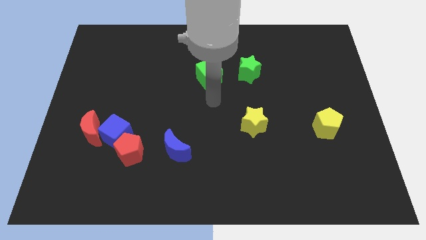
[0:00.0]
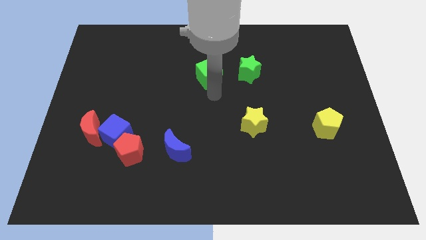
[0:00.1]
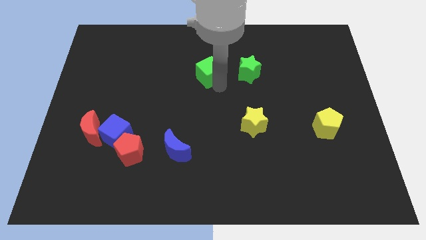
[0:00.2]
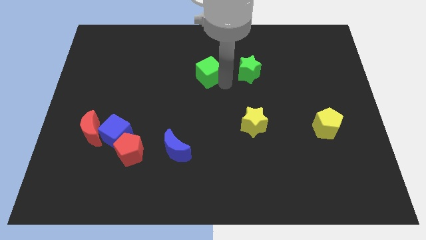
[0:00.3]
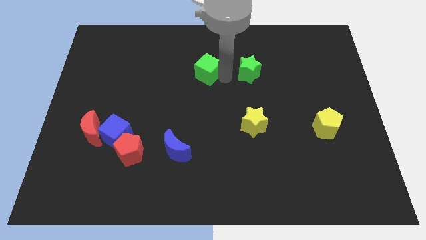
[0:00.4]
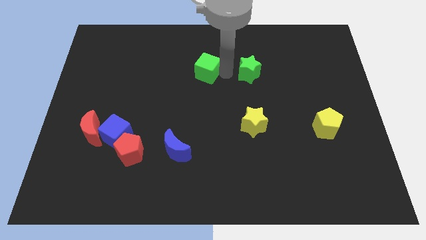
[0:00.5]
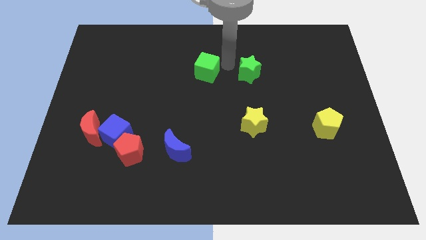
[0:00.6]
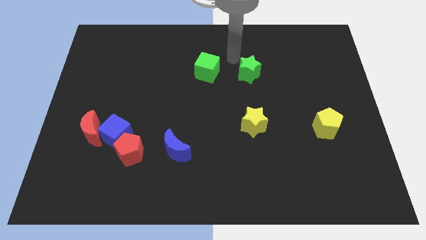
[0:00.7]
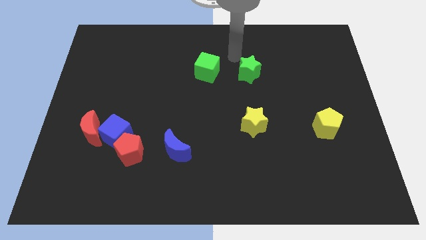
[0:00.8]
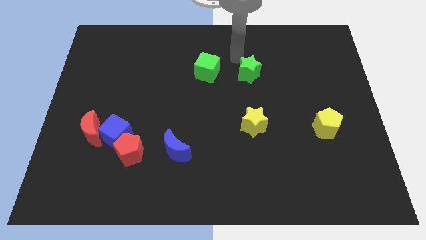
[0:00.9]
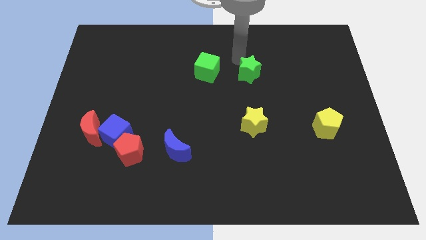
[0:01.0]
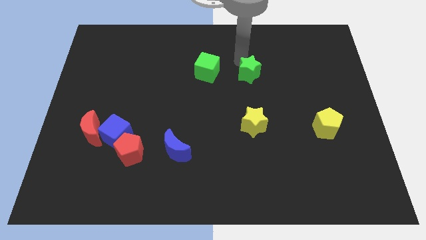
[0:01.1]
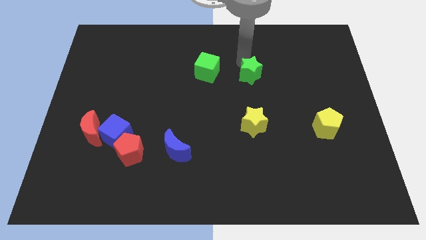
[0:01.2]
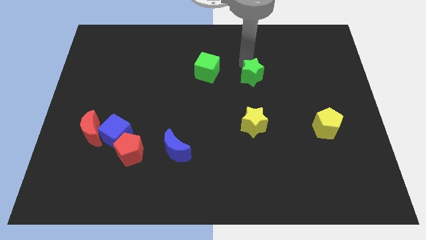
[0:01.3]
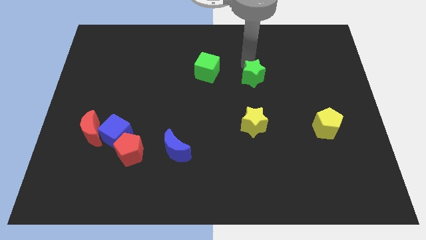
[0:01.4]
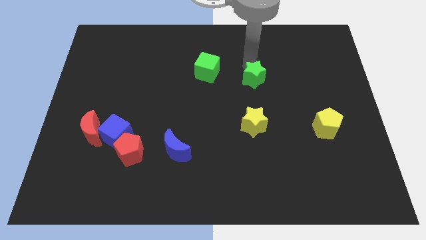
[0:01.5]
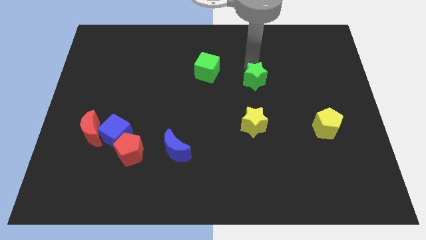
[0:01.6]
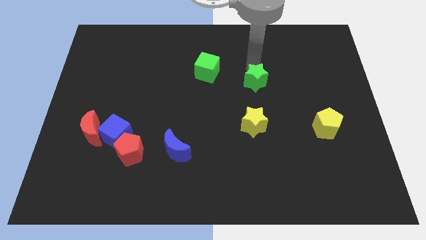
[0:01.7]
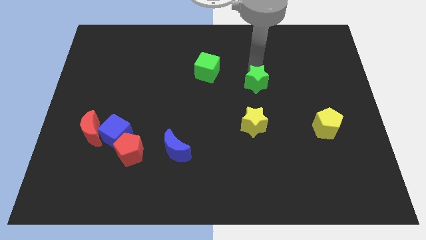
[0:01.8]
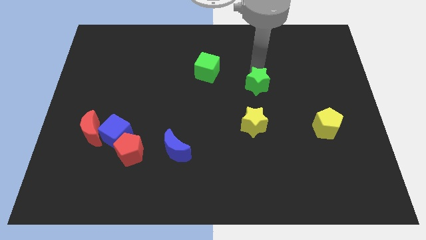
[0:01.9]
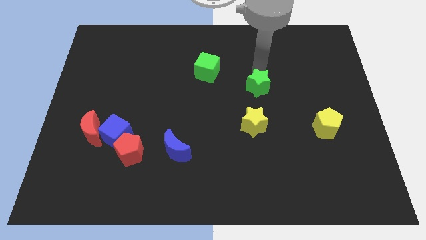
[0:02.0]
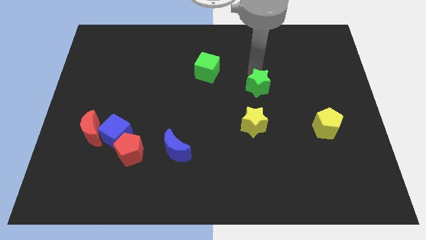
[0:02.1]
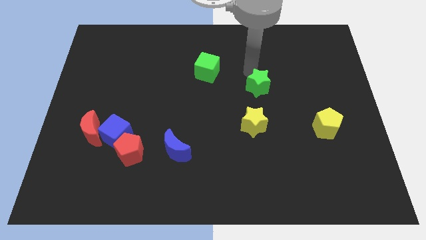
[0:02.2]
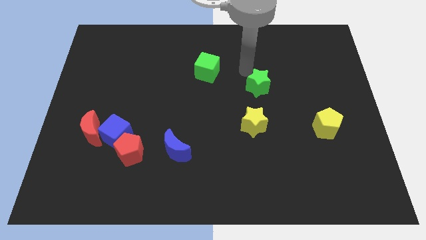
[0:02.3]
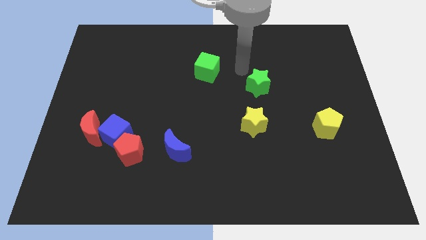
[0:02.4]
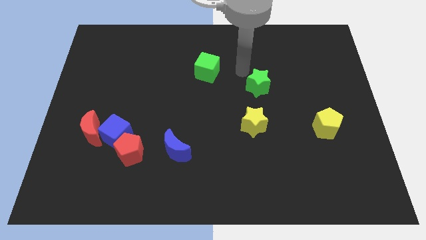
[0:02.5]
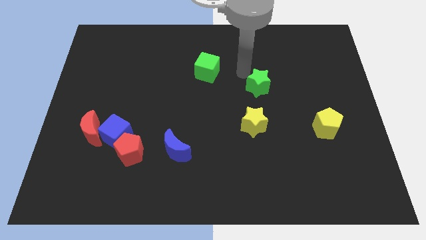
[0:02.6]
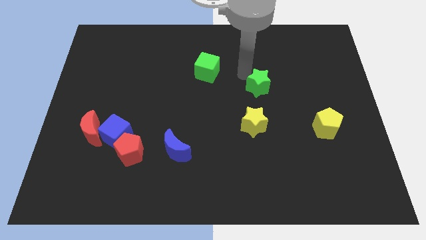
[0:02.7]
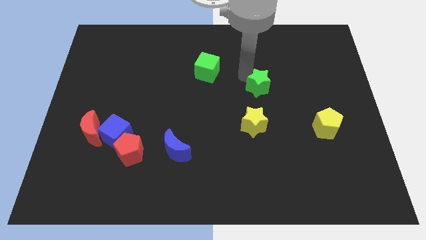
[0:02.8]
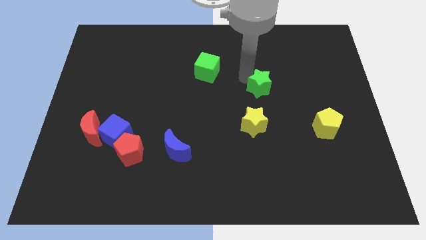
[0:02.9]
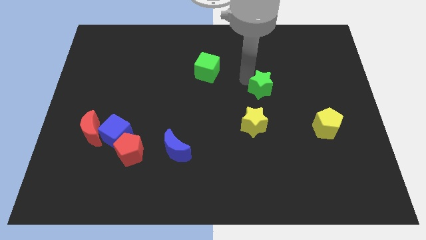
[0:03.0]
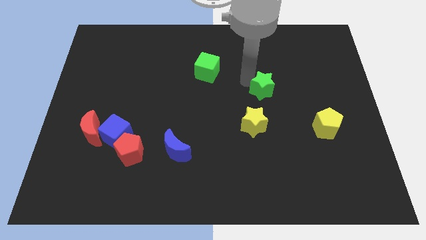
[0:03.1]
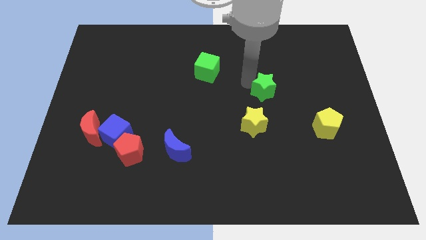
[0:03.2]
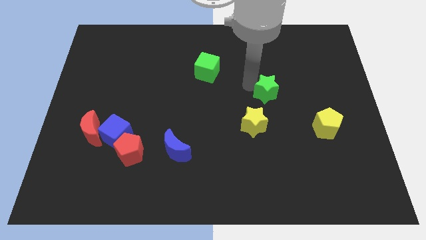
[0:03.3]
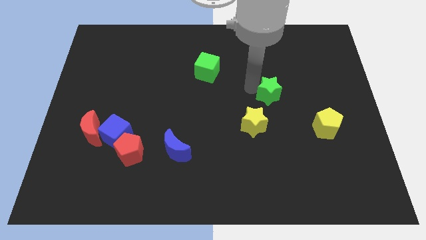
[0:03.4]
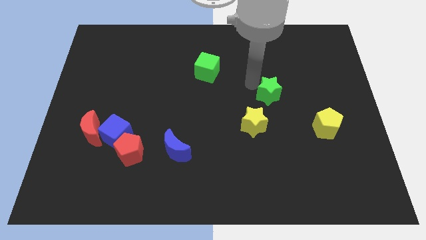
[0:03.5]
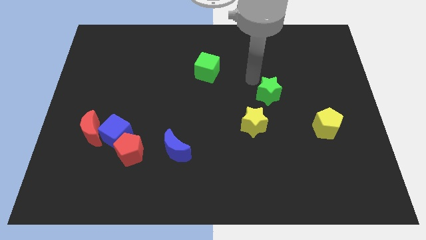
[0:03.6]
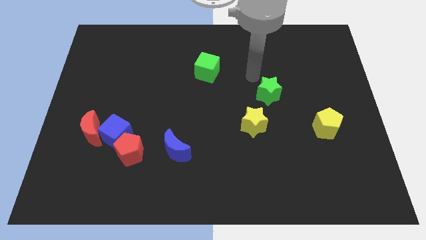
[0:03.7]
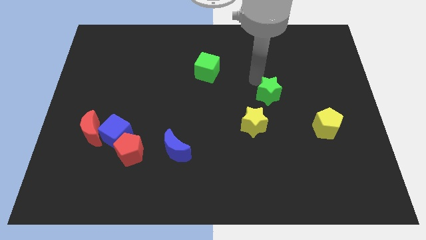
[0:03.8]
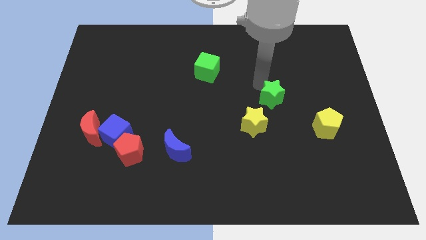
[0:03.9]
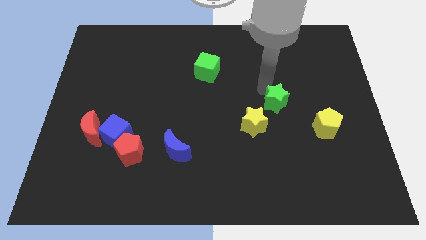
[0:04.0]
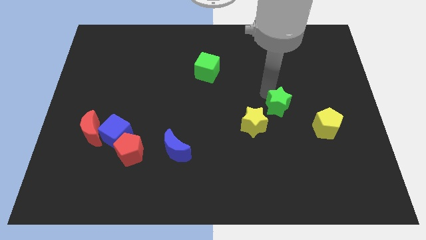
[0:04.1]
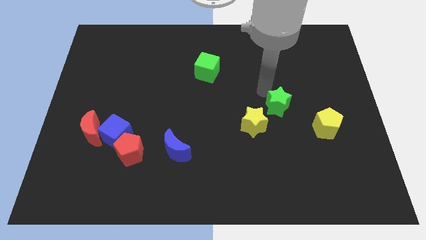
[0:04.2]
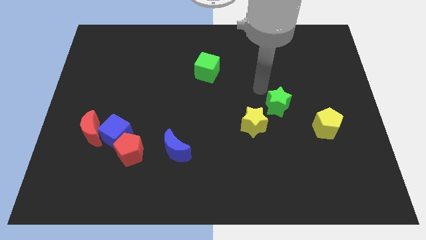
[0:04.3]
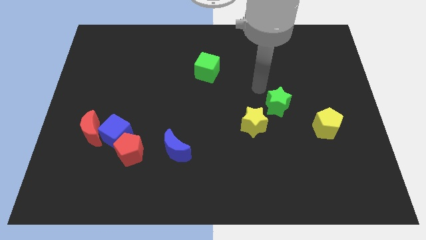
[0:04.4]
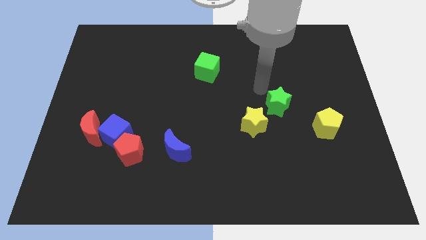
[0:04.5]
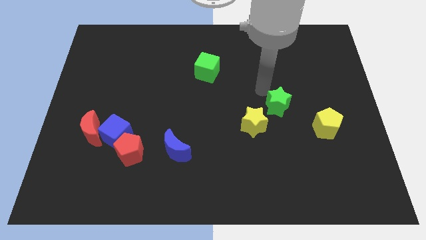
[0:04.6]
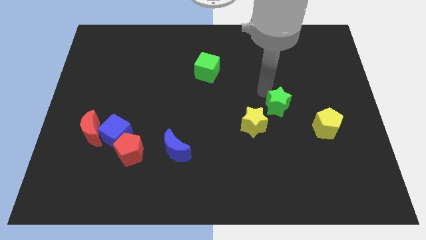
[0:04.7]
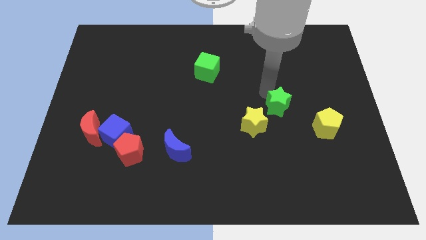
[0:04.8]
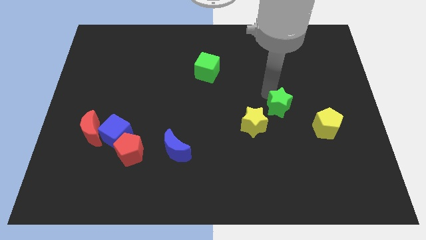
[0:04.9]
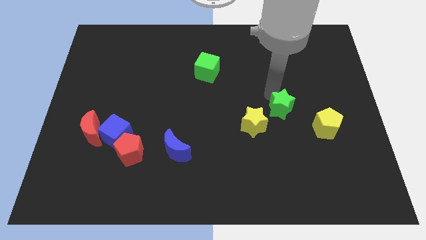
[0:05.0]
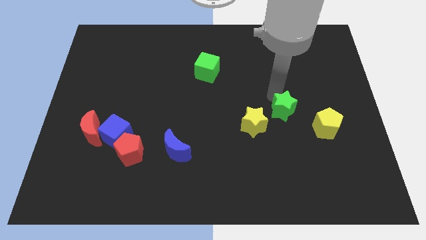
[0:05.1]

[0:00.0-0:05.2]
push the green star right of the yellow star

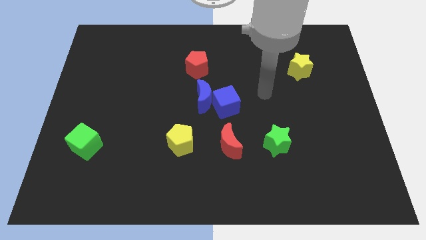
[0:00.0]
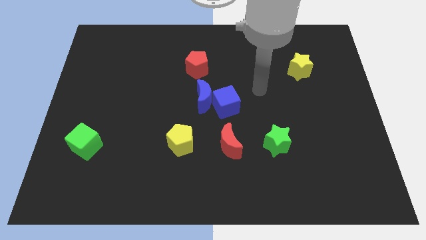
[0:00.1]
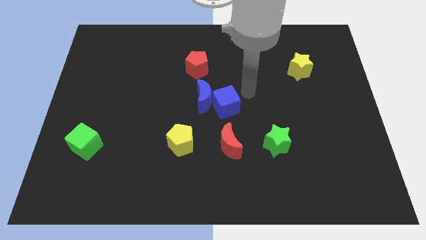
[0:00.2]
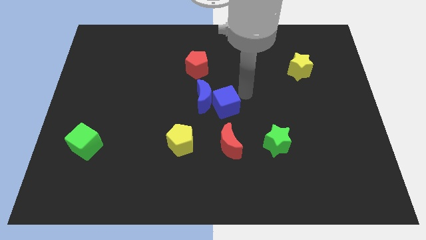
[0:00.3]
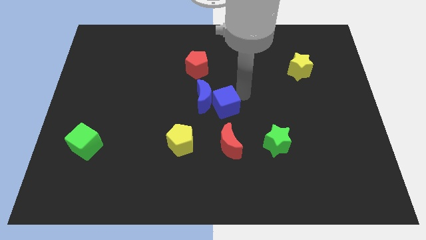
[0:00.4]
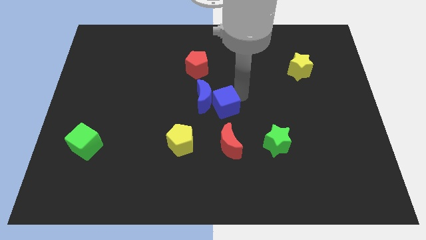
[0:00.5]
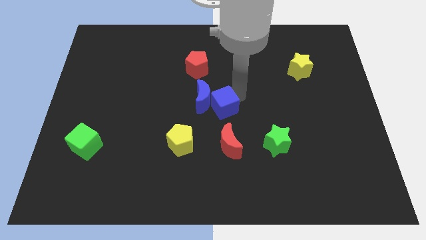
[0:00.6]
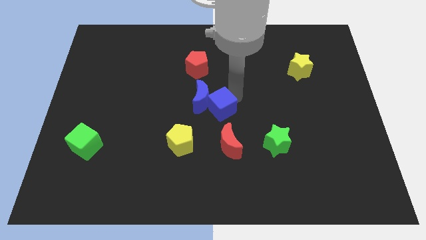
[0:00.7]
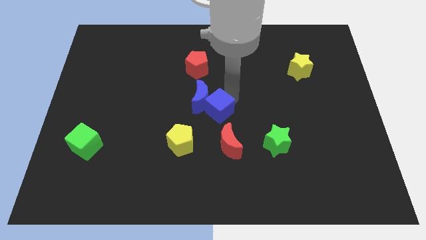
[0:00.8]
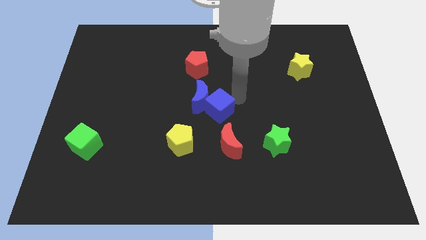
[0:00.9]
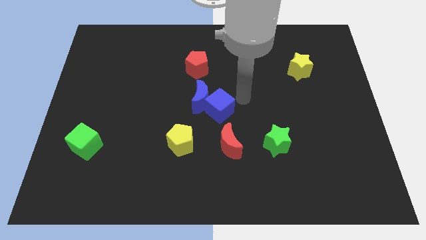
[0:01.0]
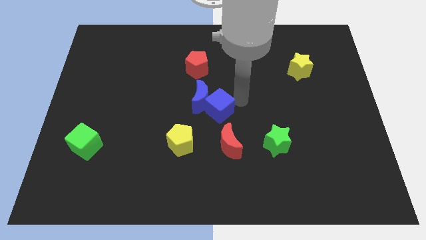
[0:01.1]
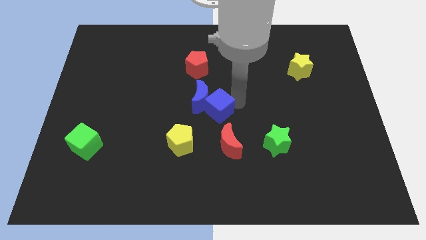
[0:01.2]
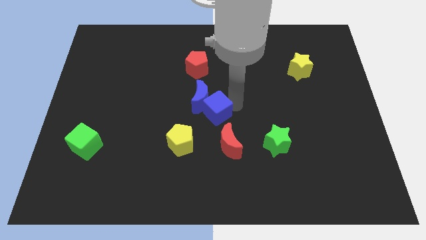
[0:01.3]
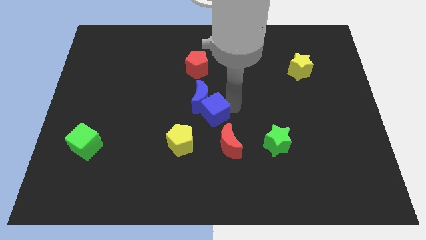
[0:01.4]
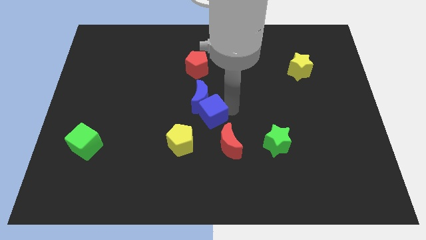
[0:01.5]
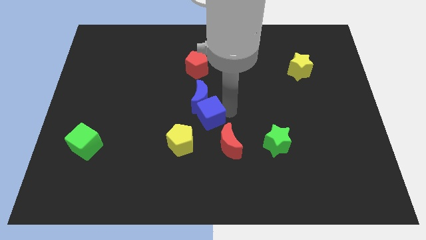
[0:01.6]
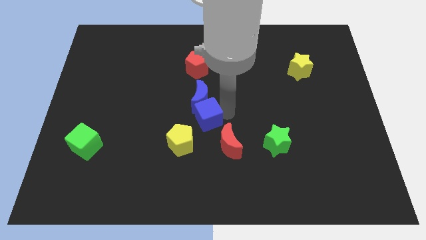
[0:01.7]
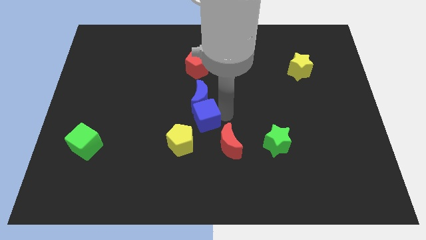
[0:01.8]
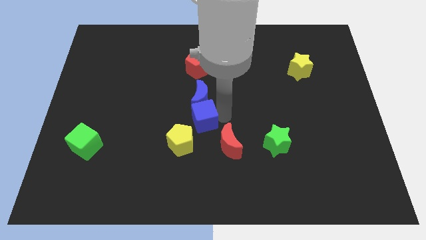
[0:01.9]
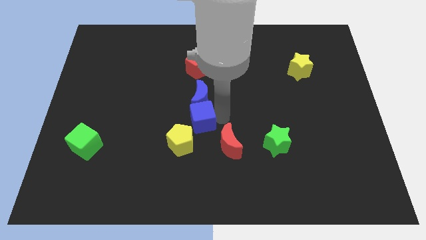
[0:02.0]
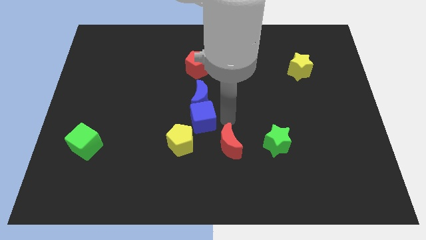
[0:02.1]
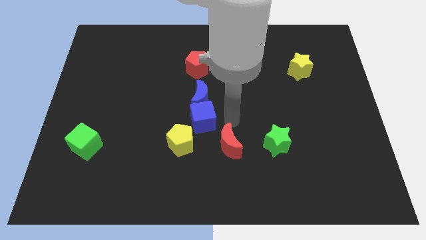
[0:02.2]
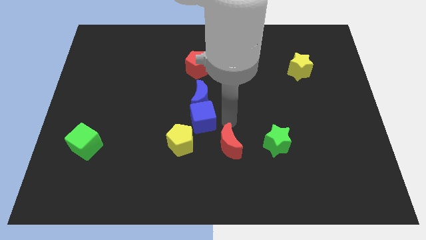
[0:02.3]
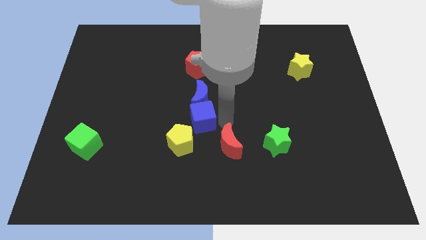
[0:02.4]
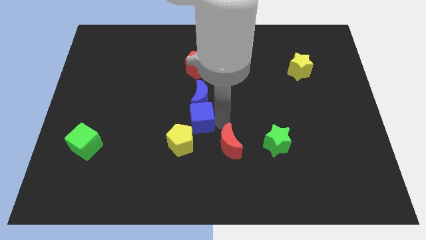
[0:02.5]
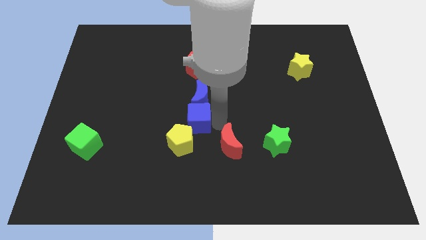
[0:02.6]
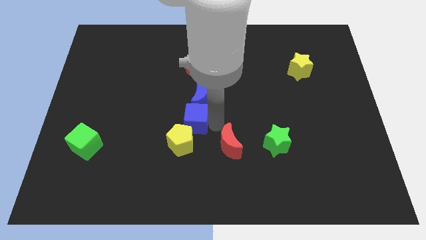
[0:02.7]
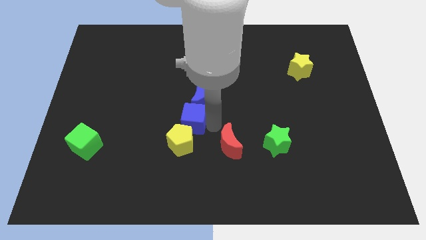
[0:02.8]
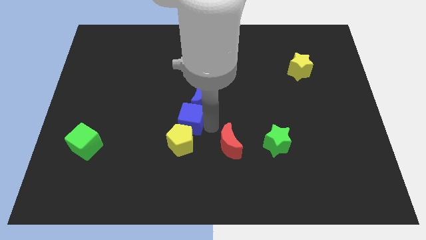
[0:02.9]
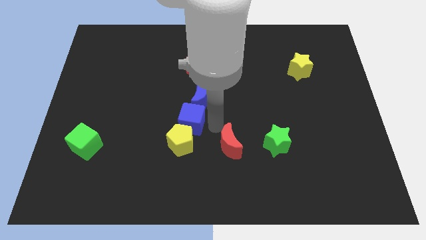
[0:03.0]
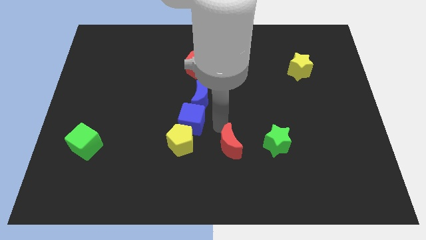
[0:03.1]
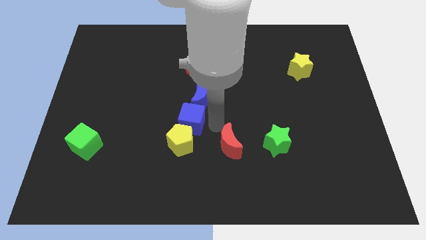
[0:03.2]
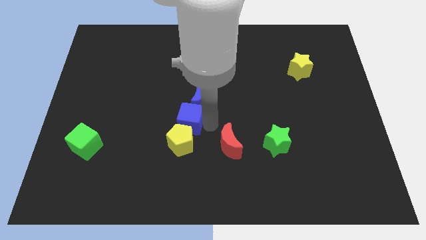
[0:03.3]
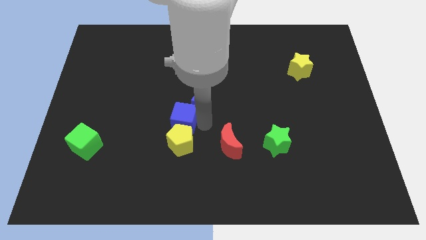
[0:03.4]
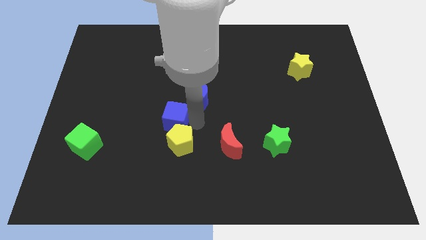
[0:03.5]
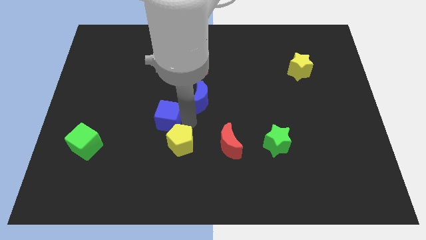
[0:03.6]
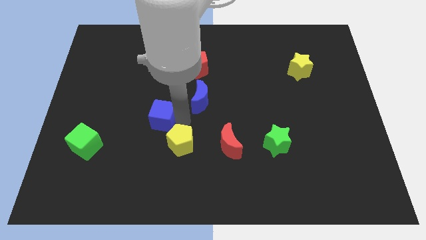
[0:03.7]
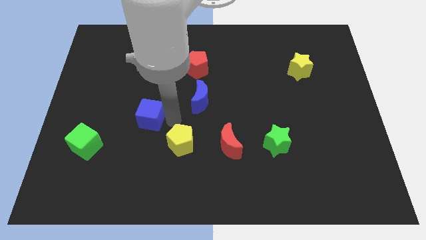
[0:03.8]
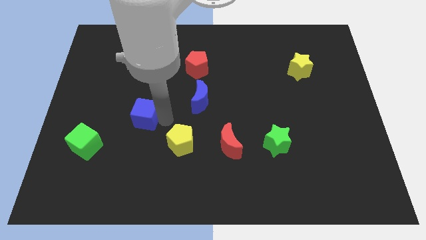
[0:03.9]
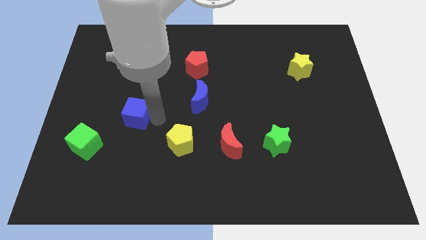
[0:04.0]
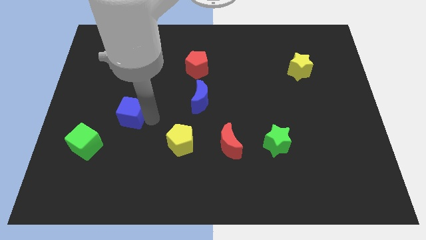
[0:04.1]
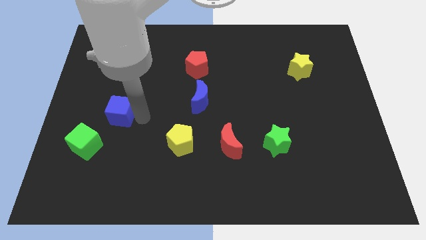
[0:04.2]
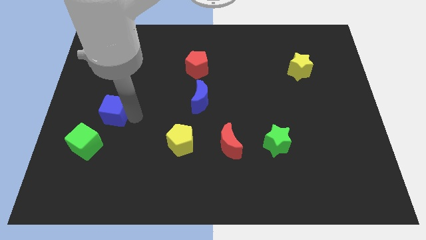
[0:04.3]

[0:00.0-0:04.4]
push the blue cube to the top of the green cube
